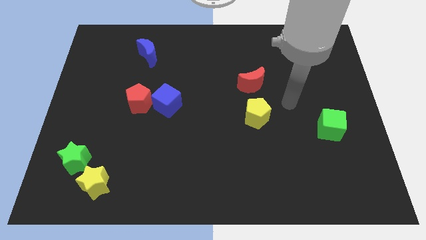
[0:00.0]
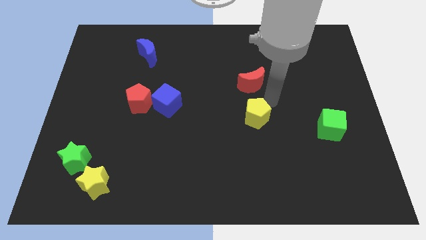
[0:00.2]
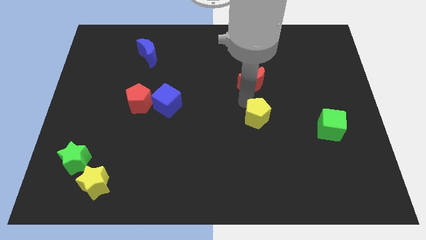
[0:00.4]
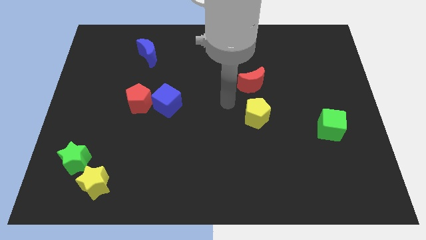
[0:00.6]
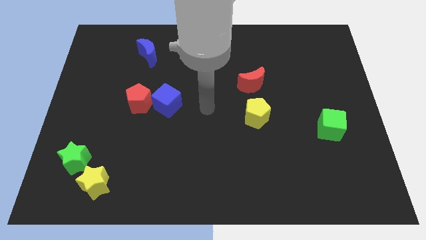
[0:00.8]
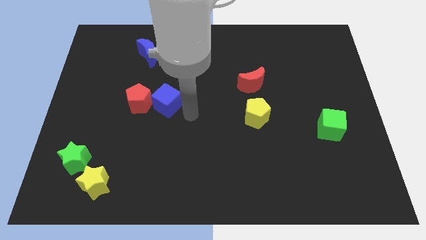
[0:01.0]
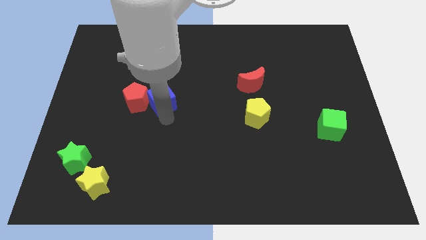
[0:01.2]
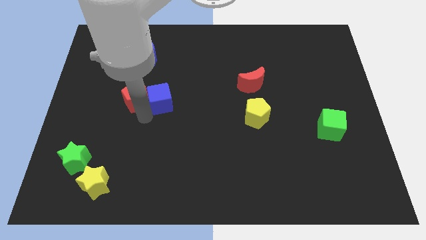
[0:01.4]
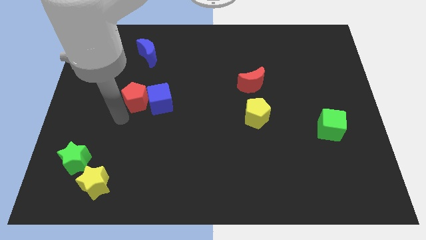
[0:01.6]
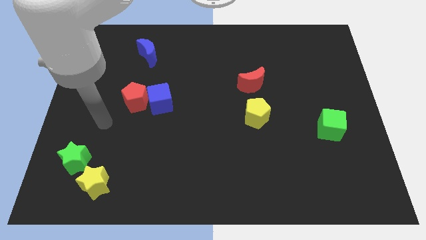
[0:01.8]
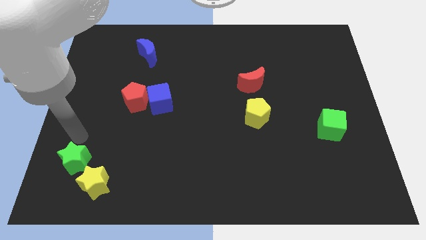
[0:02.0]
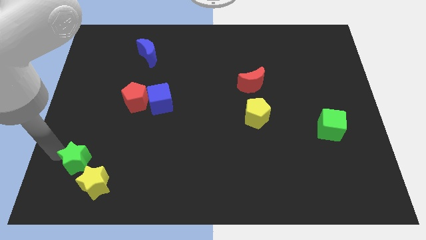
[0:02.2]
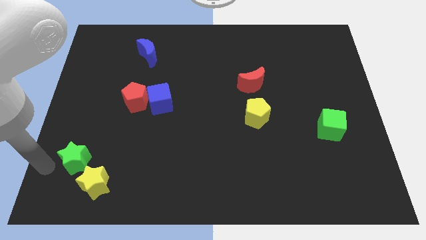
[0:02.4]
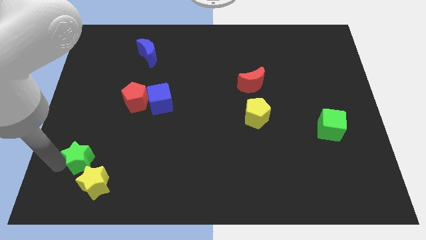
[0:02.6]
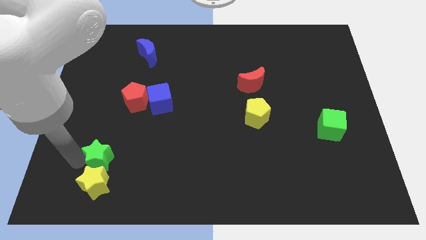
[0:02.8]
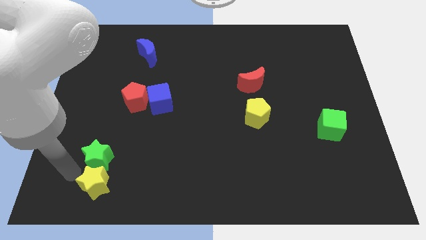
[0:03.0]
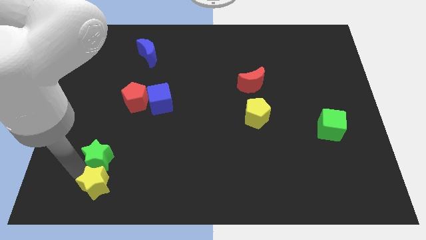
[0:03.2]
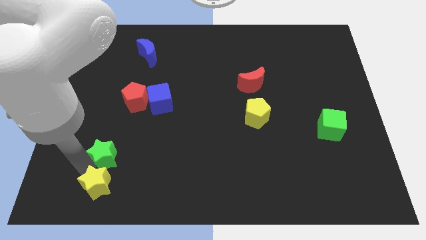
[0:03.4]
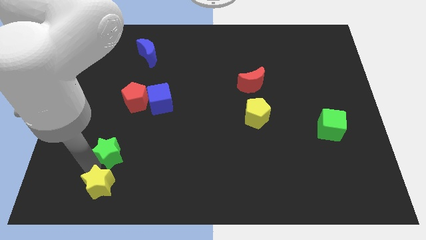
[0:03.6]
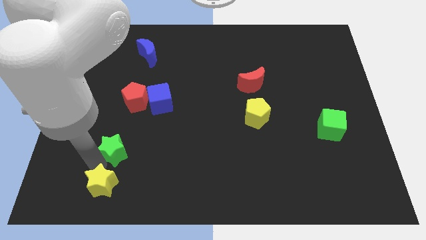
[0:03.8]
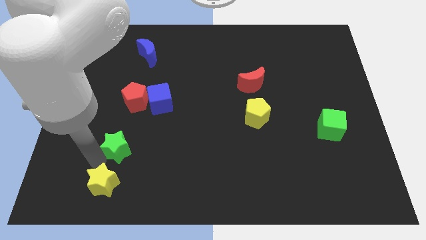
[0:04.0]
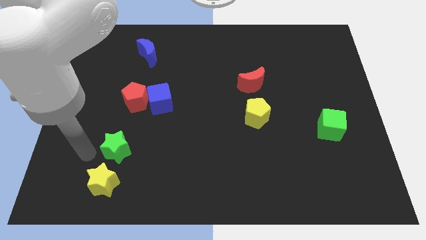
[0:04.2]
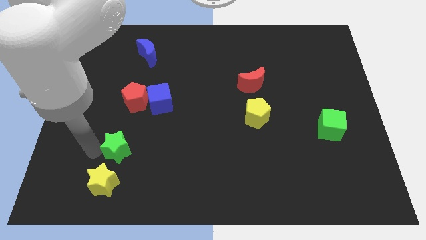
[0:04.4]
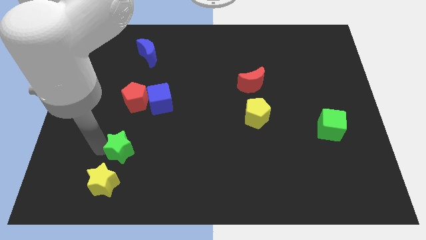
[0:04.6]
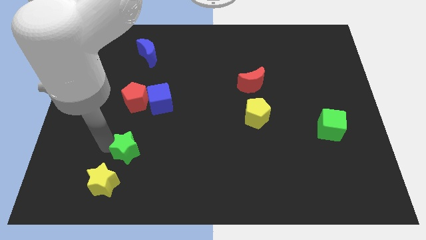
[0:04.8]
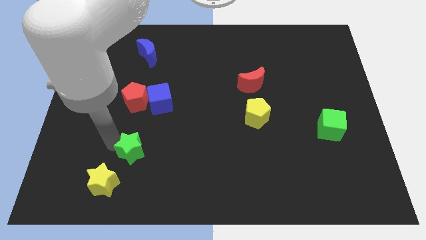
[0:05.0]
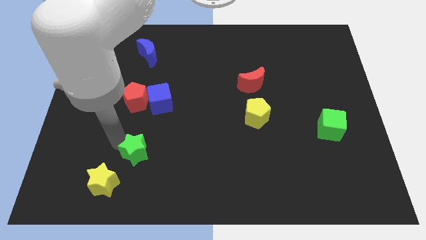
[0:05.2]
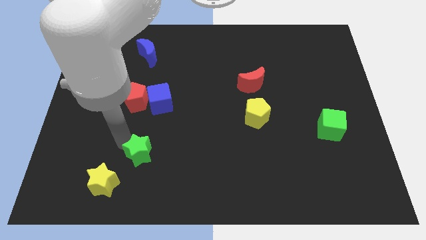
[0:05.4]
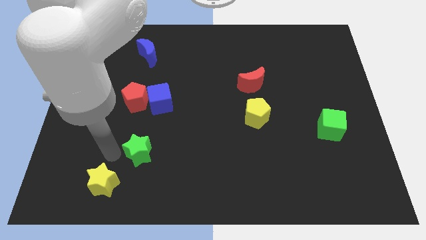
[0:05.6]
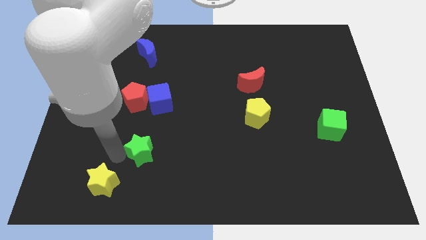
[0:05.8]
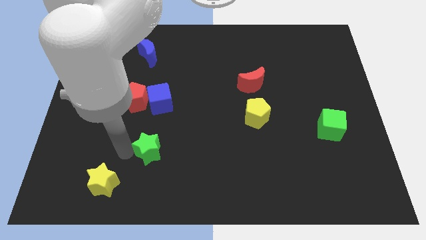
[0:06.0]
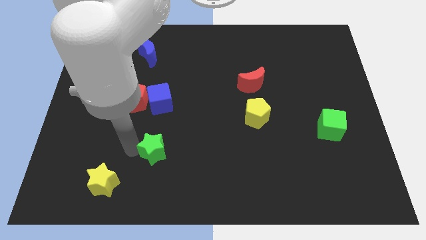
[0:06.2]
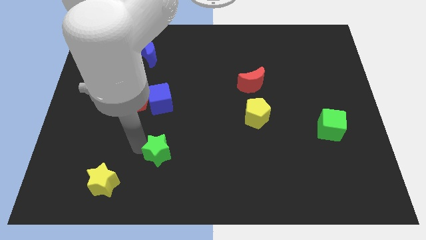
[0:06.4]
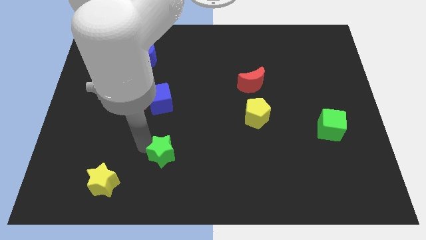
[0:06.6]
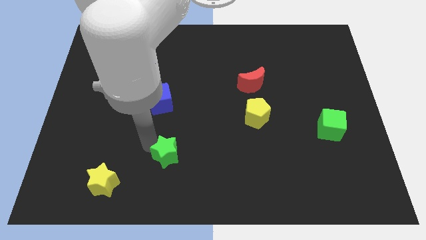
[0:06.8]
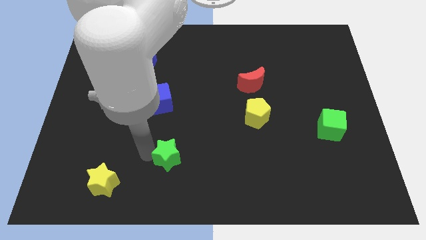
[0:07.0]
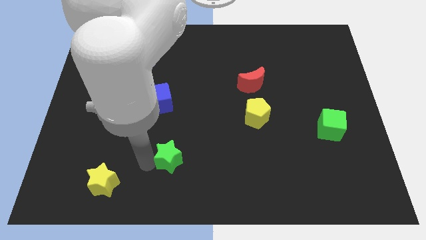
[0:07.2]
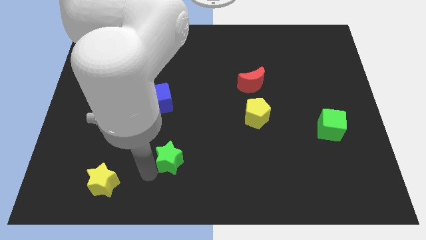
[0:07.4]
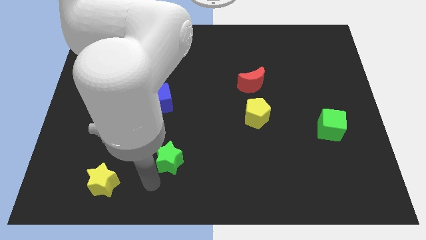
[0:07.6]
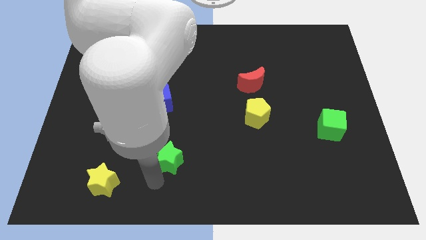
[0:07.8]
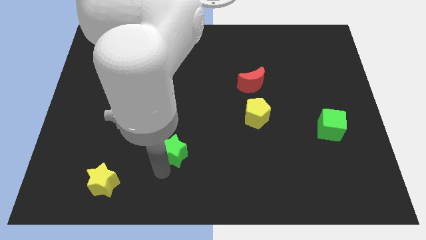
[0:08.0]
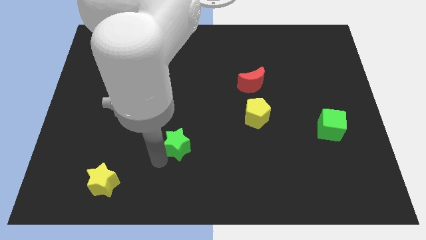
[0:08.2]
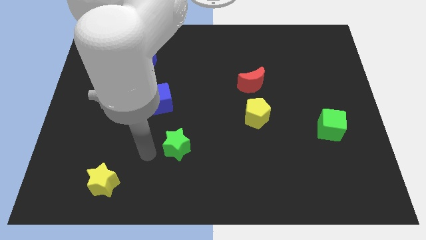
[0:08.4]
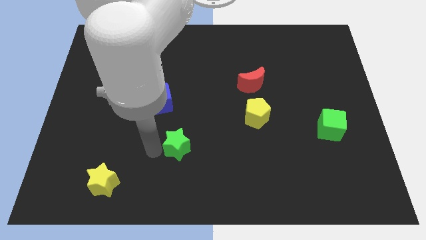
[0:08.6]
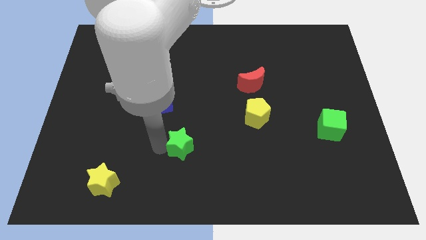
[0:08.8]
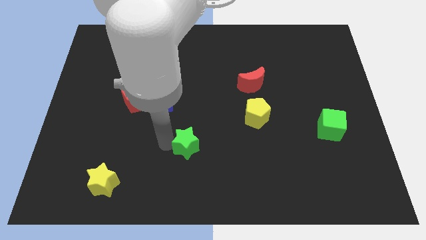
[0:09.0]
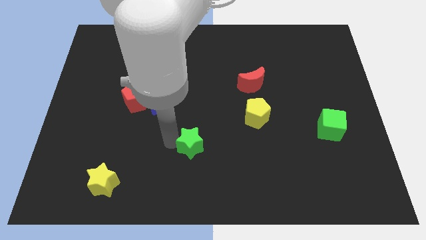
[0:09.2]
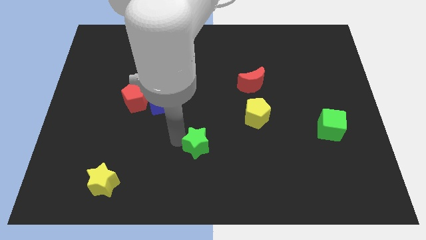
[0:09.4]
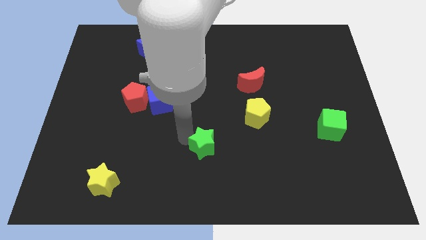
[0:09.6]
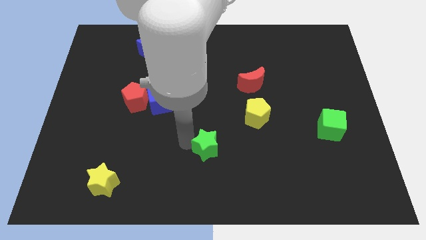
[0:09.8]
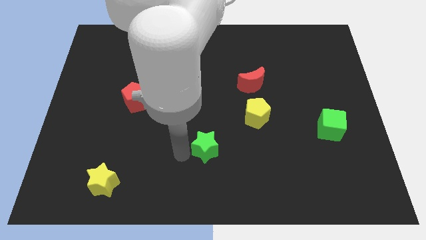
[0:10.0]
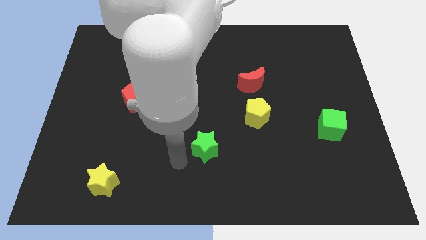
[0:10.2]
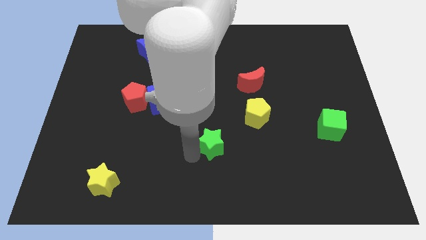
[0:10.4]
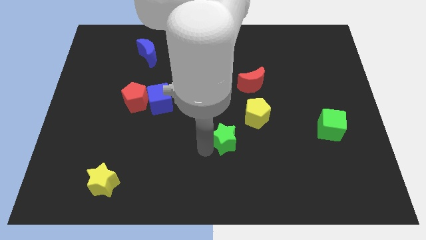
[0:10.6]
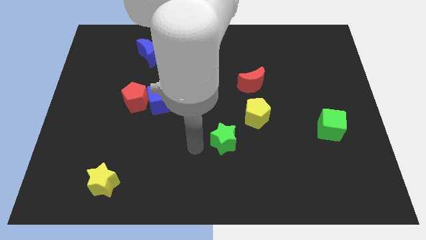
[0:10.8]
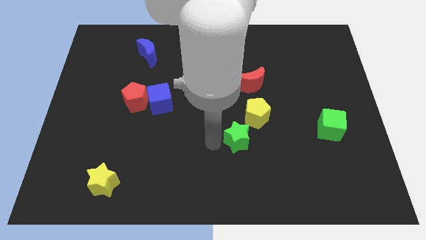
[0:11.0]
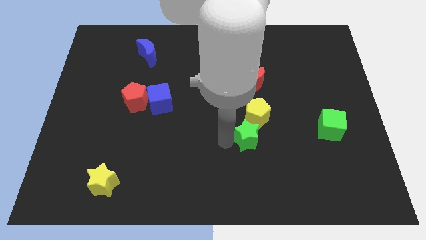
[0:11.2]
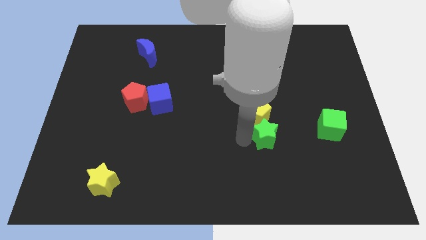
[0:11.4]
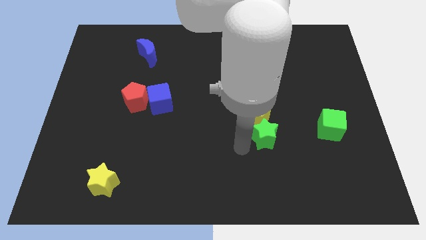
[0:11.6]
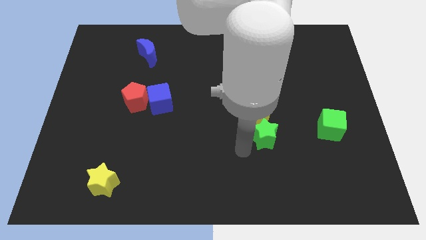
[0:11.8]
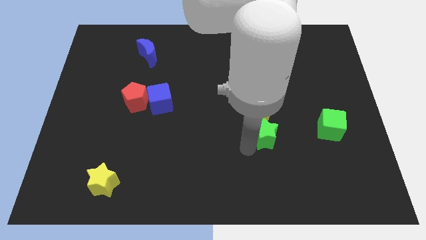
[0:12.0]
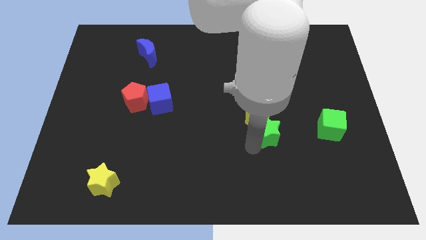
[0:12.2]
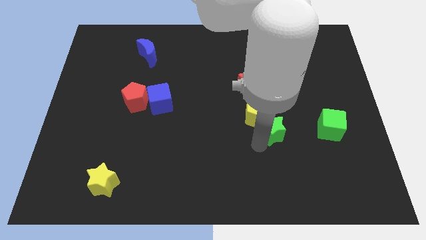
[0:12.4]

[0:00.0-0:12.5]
push the green star to the right of the yellow pentagon

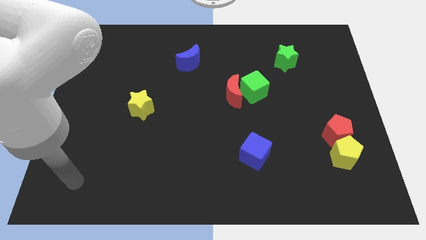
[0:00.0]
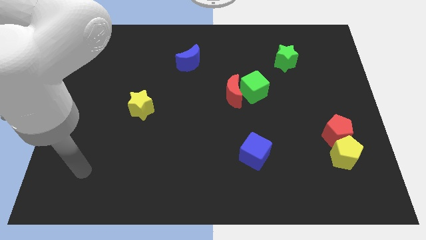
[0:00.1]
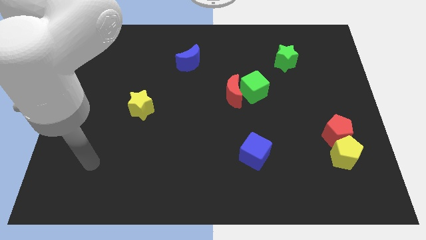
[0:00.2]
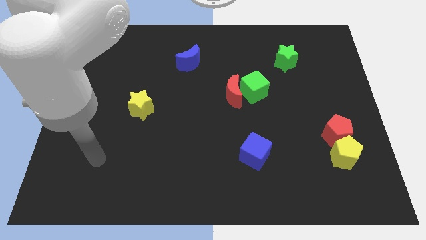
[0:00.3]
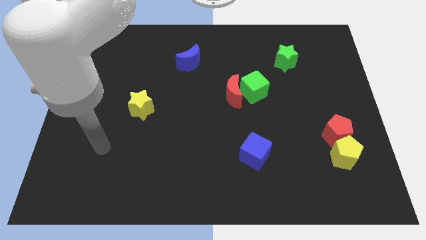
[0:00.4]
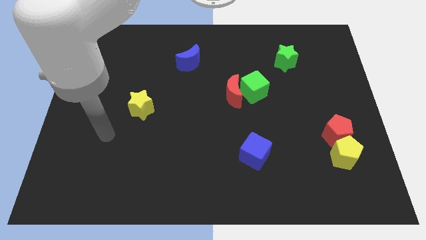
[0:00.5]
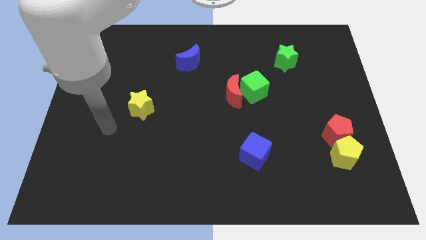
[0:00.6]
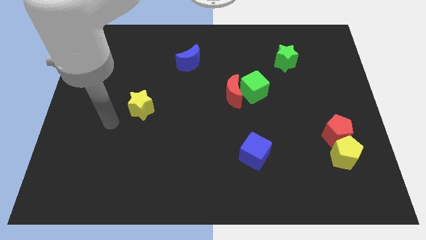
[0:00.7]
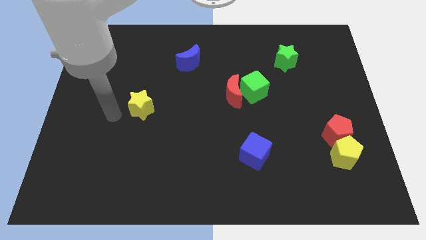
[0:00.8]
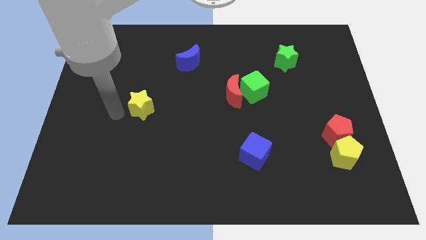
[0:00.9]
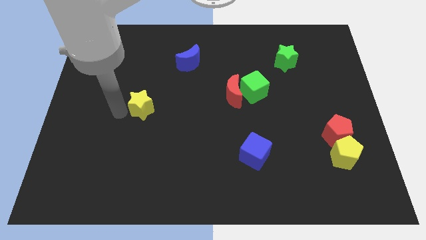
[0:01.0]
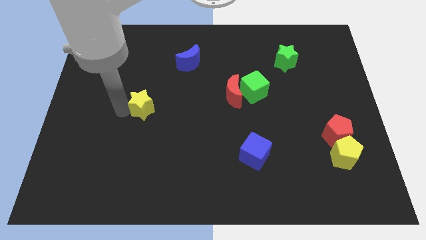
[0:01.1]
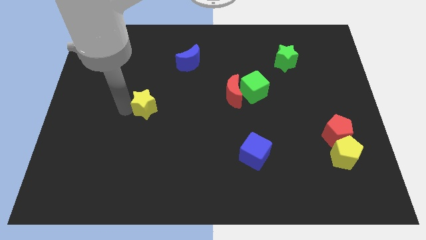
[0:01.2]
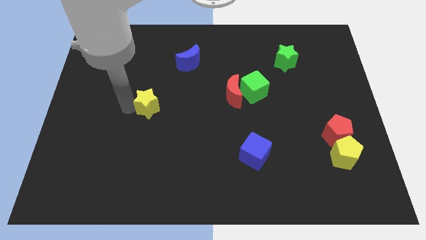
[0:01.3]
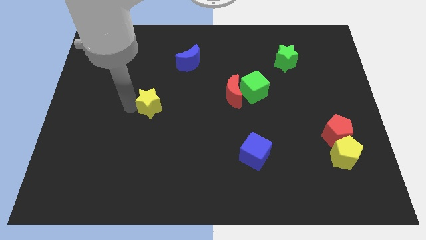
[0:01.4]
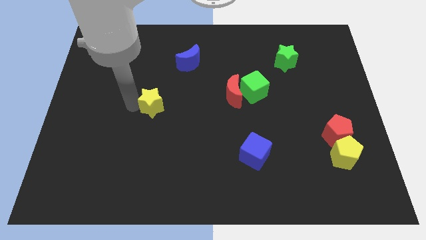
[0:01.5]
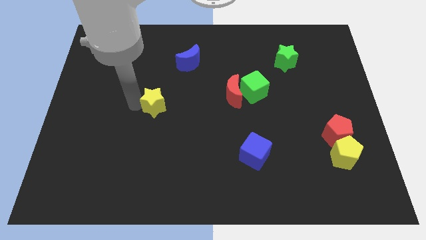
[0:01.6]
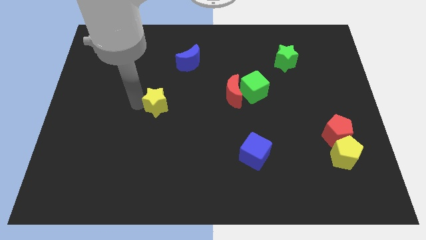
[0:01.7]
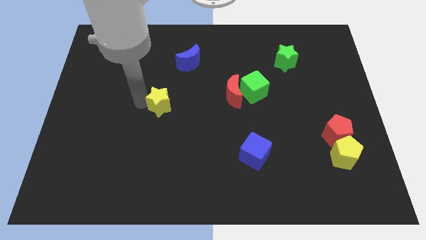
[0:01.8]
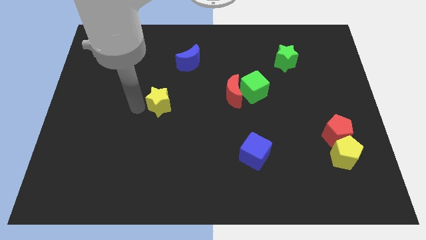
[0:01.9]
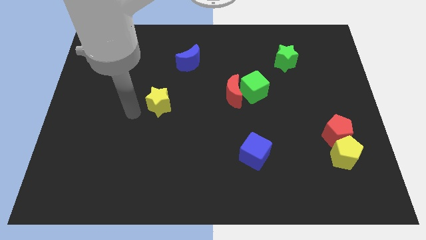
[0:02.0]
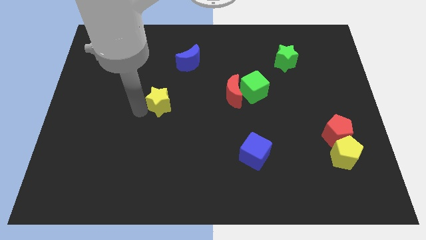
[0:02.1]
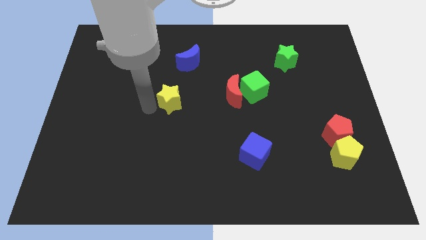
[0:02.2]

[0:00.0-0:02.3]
put the yellow star just left of the red moon
